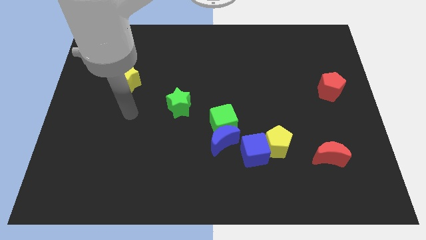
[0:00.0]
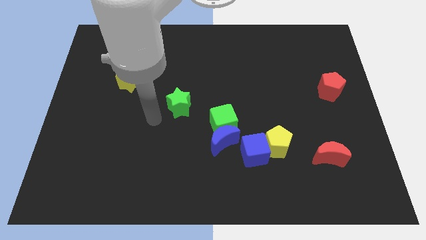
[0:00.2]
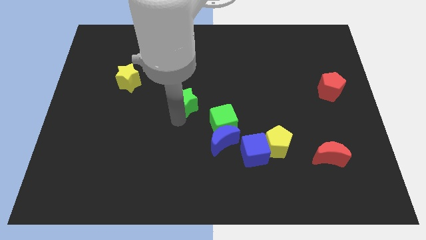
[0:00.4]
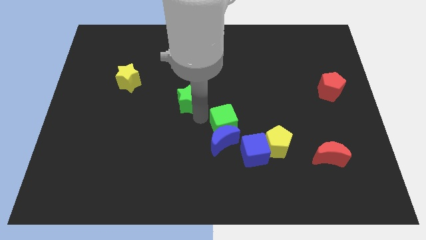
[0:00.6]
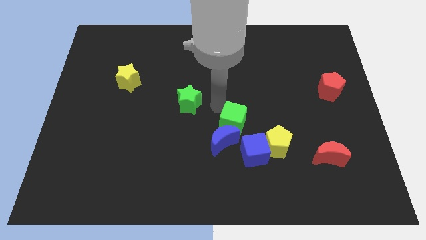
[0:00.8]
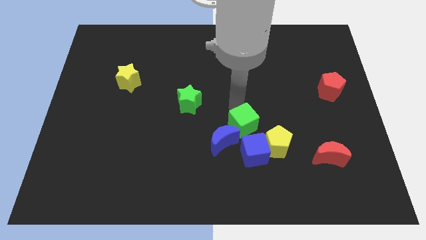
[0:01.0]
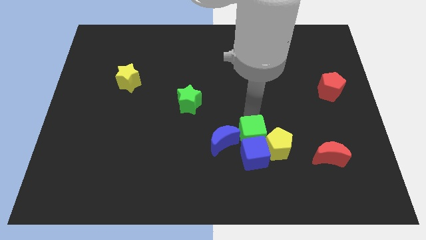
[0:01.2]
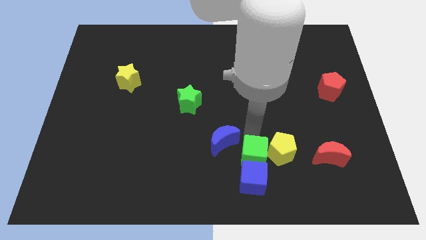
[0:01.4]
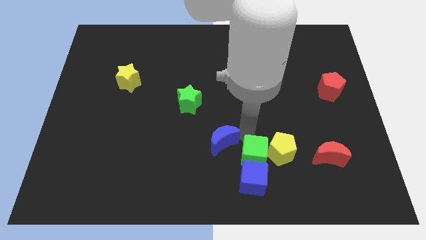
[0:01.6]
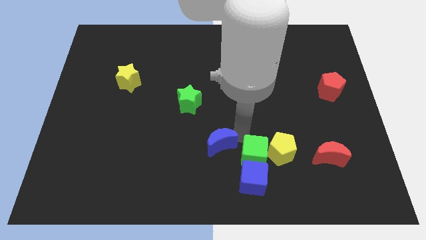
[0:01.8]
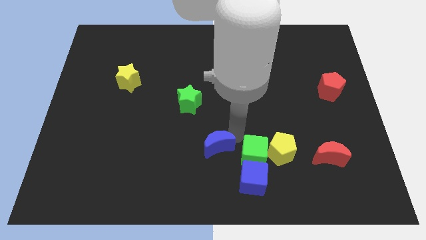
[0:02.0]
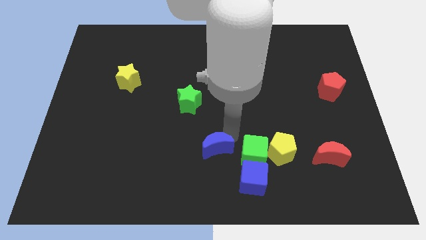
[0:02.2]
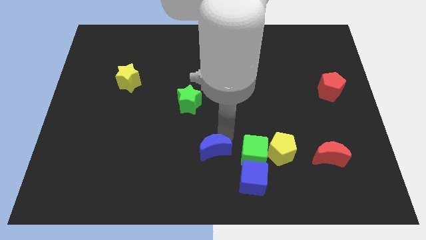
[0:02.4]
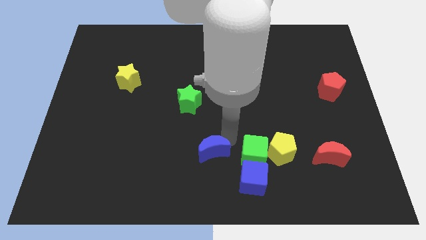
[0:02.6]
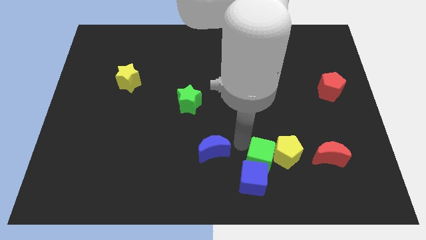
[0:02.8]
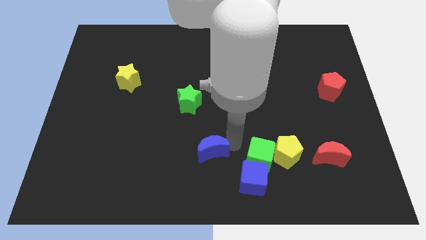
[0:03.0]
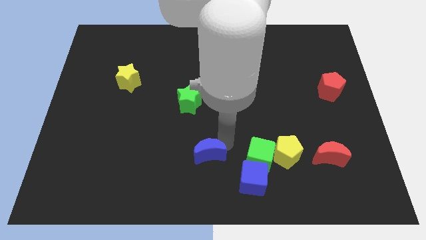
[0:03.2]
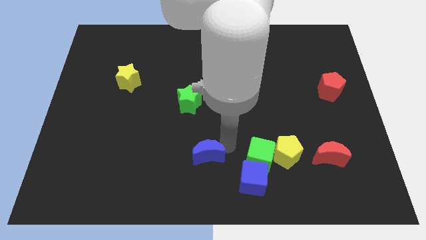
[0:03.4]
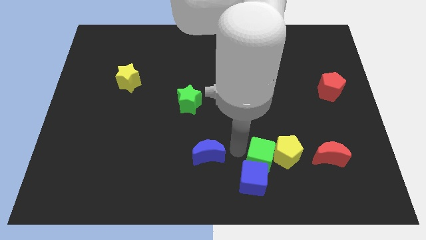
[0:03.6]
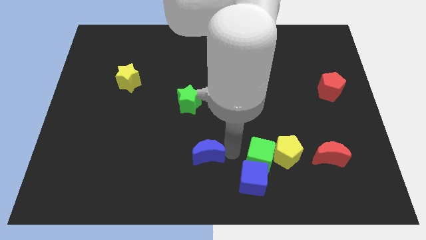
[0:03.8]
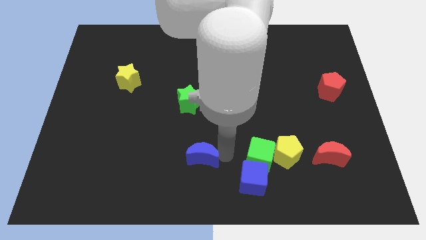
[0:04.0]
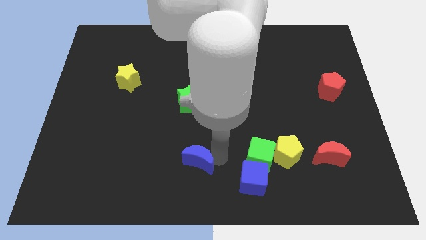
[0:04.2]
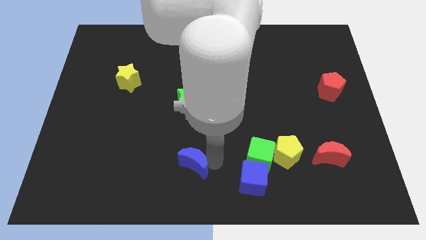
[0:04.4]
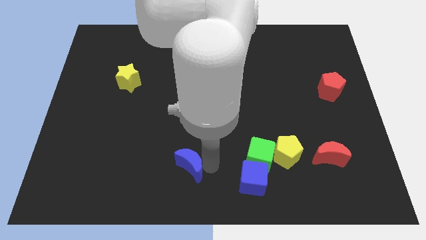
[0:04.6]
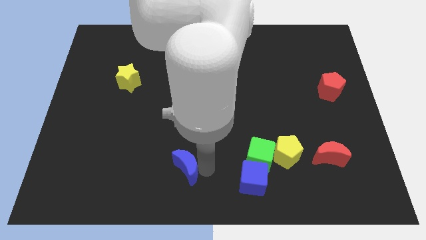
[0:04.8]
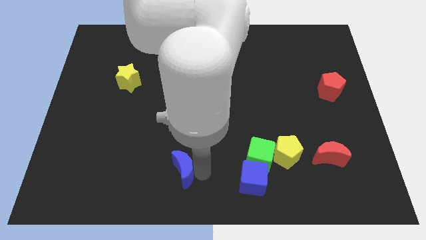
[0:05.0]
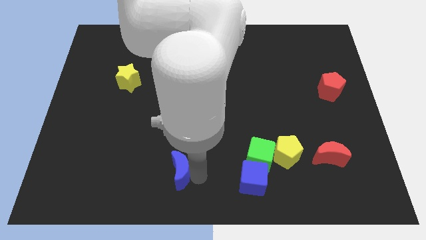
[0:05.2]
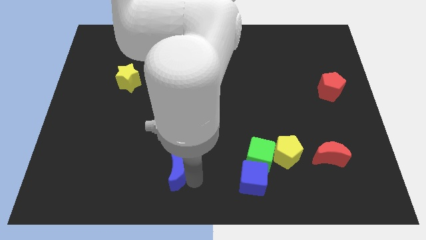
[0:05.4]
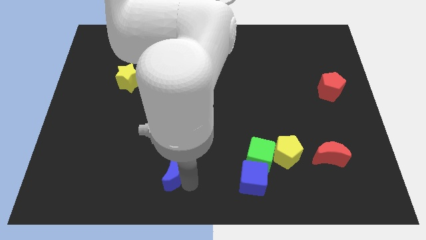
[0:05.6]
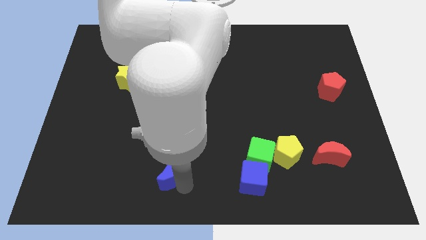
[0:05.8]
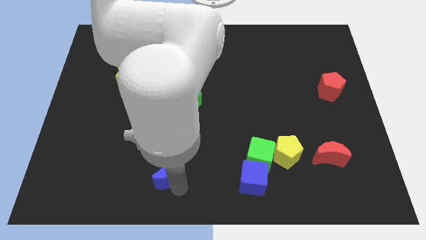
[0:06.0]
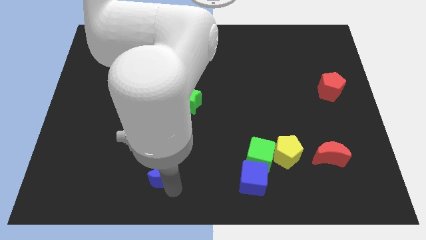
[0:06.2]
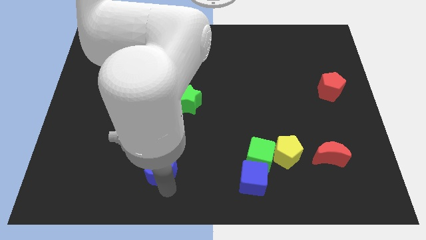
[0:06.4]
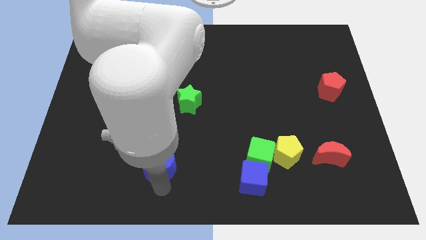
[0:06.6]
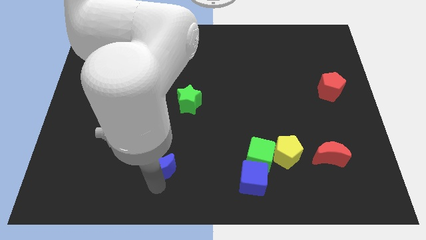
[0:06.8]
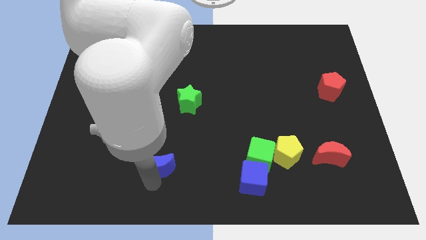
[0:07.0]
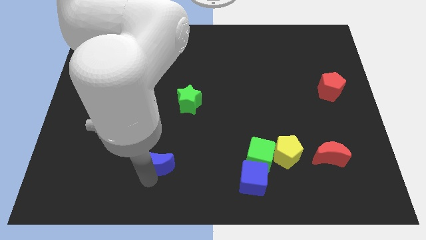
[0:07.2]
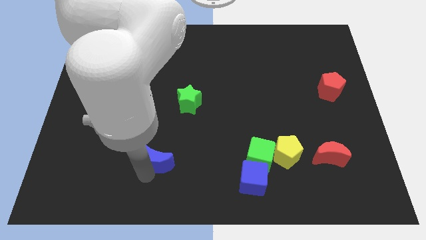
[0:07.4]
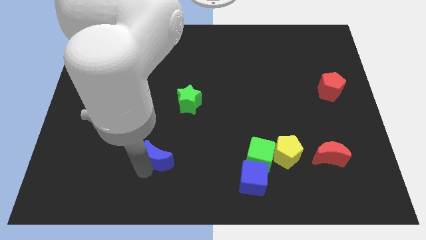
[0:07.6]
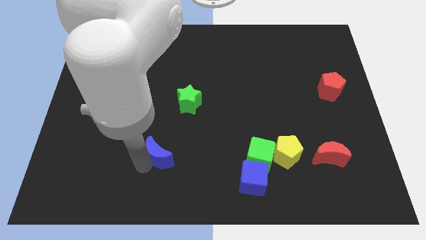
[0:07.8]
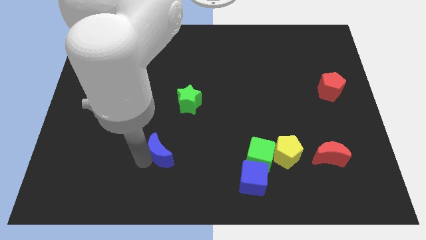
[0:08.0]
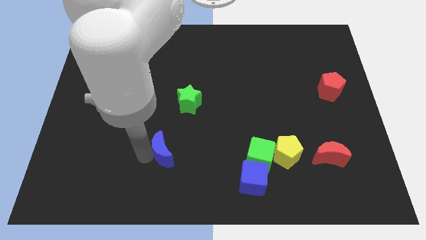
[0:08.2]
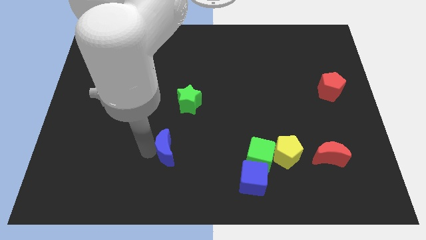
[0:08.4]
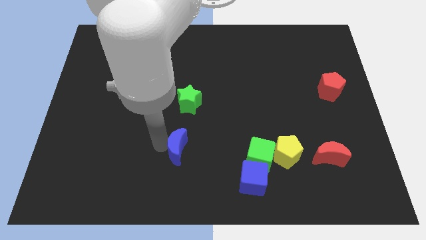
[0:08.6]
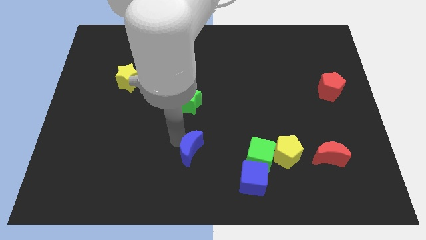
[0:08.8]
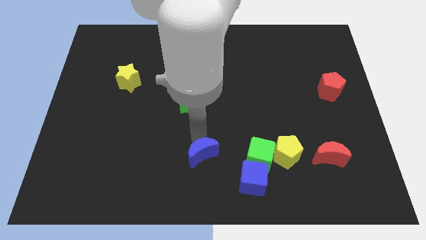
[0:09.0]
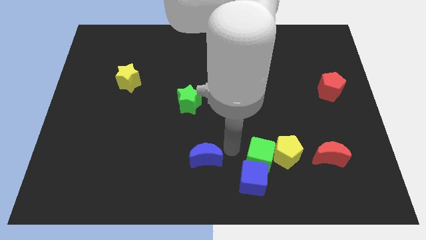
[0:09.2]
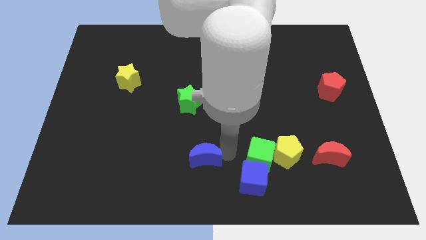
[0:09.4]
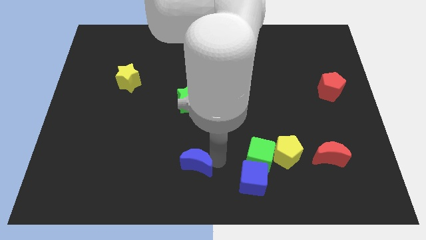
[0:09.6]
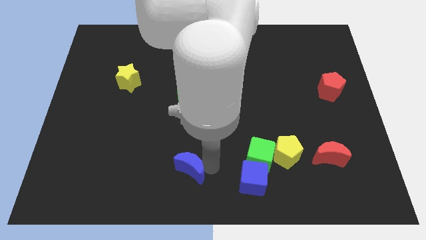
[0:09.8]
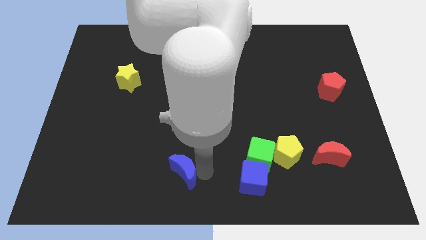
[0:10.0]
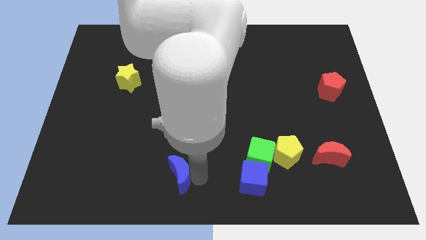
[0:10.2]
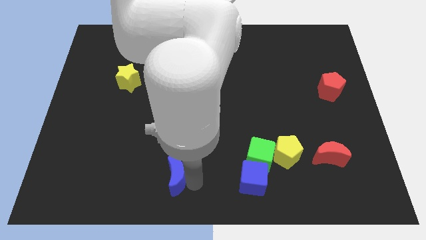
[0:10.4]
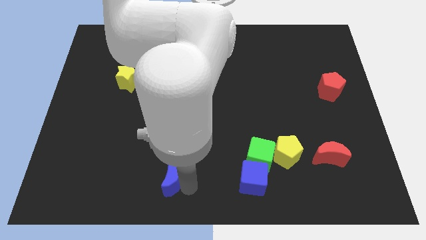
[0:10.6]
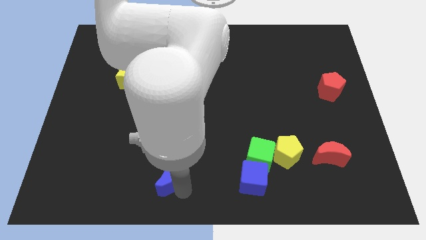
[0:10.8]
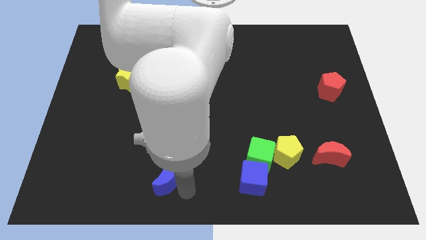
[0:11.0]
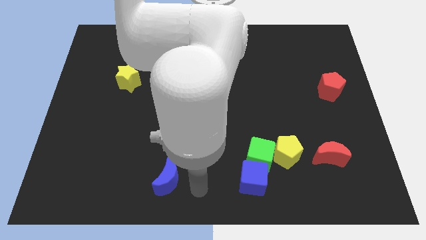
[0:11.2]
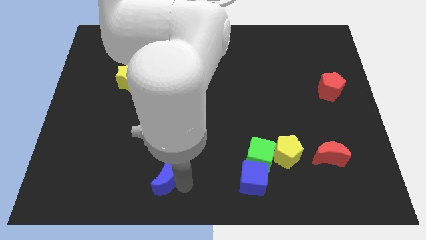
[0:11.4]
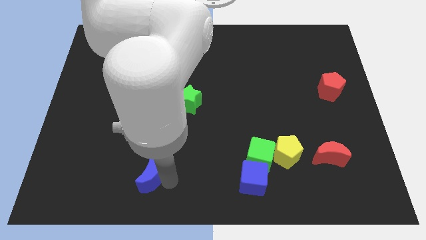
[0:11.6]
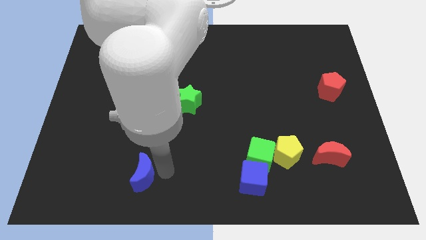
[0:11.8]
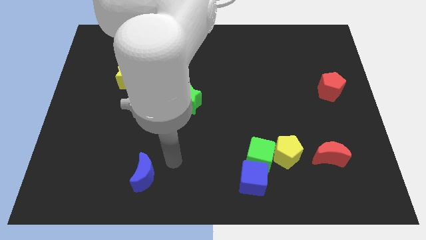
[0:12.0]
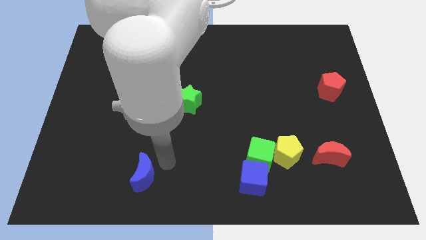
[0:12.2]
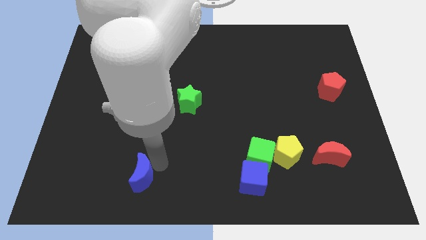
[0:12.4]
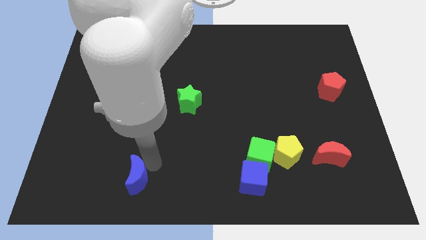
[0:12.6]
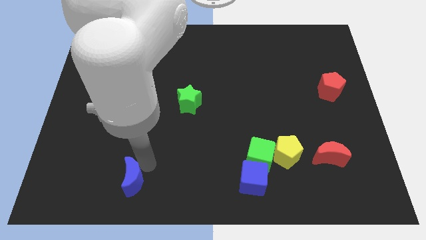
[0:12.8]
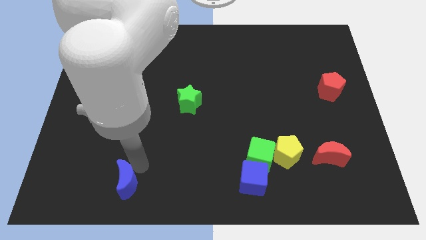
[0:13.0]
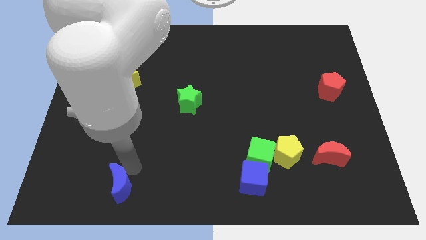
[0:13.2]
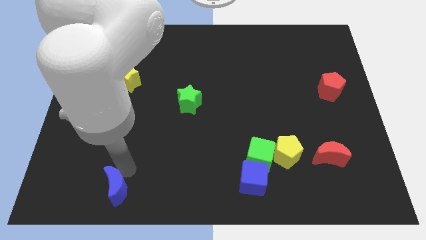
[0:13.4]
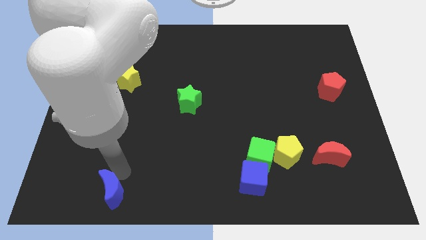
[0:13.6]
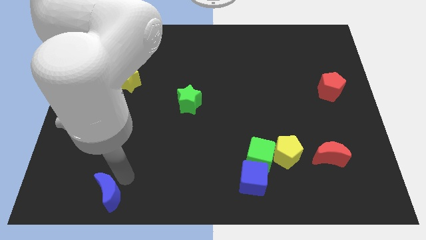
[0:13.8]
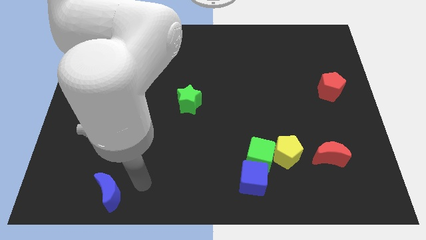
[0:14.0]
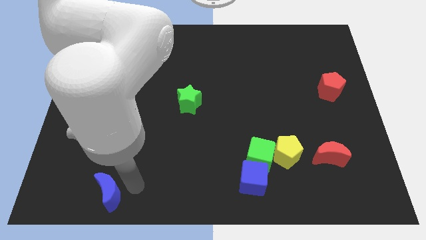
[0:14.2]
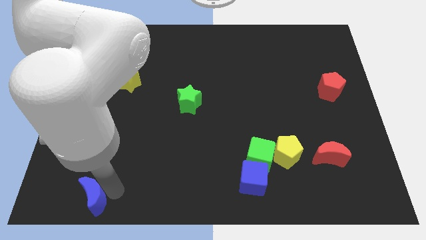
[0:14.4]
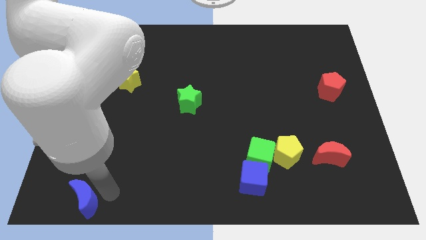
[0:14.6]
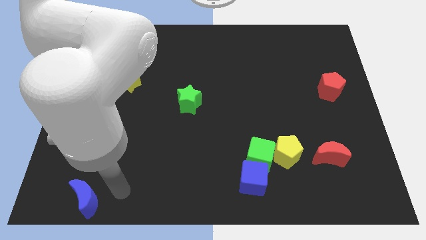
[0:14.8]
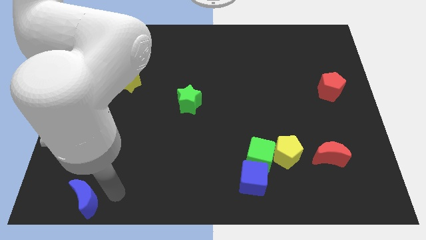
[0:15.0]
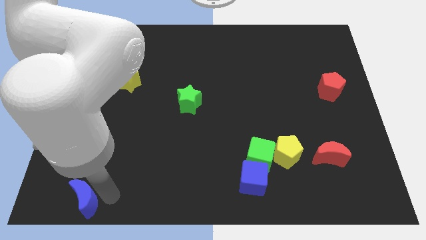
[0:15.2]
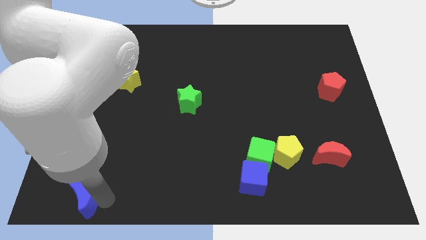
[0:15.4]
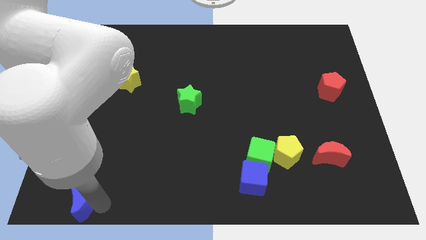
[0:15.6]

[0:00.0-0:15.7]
put the blue moon to the lower left corner
